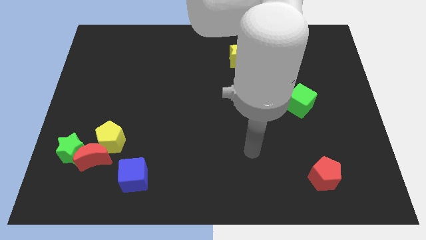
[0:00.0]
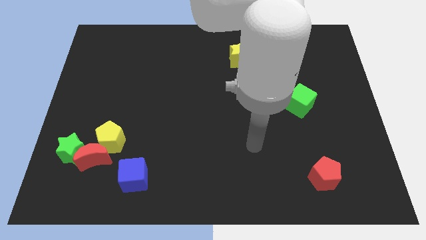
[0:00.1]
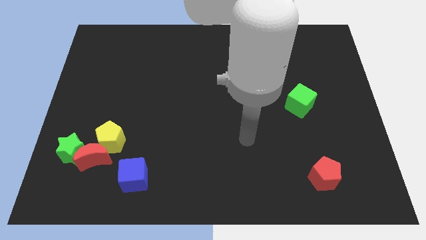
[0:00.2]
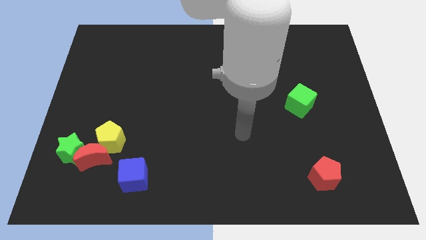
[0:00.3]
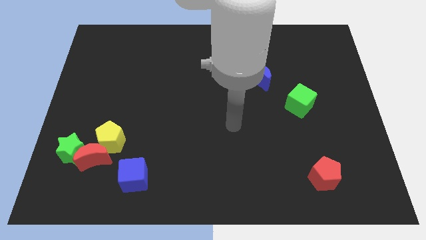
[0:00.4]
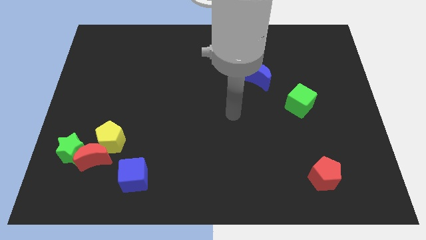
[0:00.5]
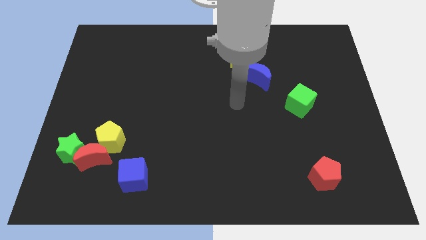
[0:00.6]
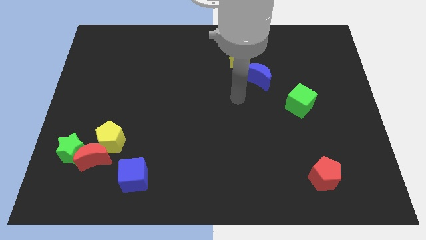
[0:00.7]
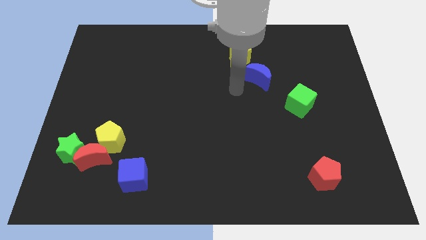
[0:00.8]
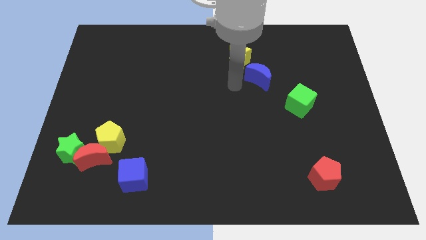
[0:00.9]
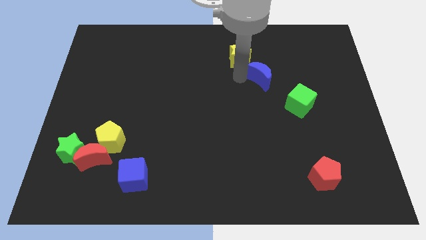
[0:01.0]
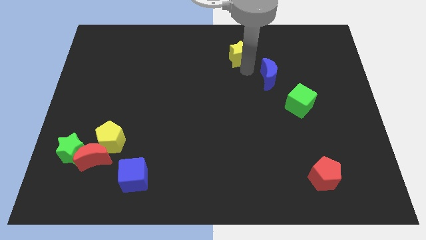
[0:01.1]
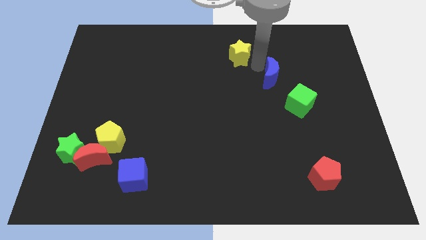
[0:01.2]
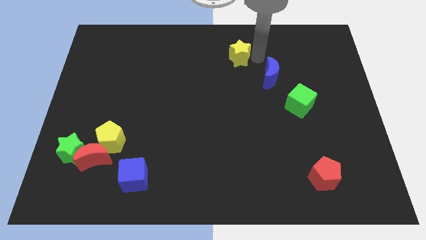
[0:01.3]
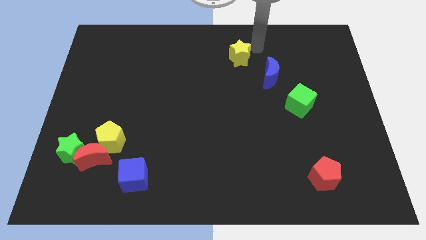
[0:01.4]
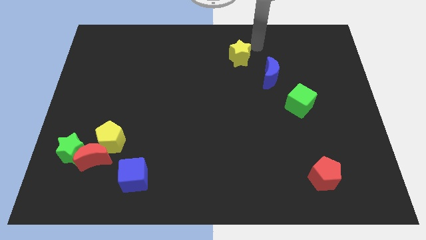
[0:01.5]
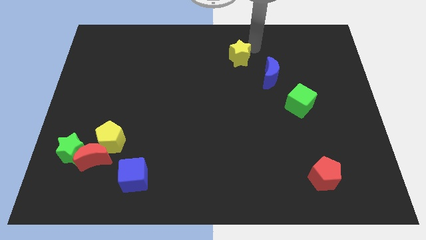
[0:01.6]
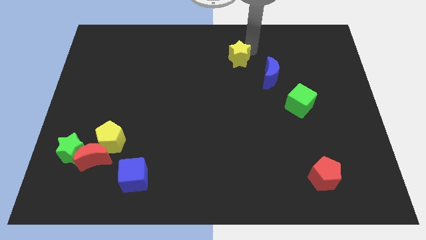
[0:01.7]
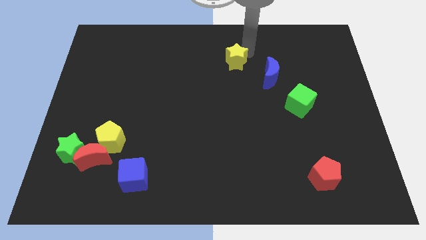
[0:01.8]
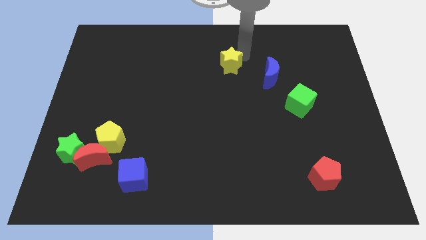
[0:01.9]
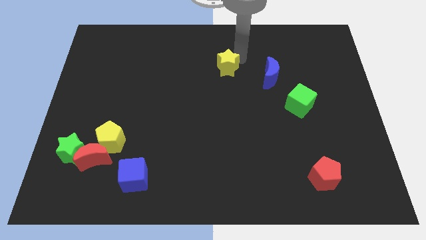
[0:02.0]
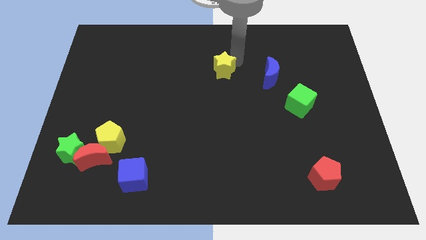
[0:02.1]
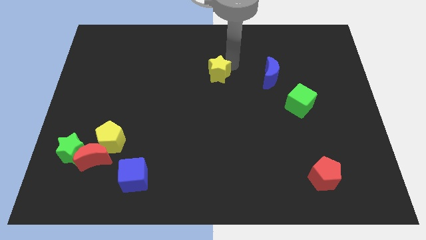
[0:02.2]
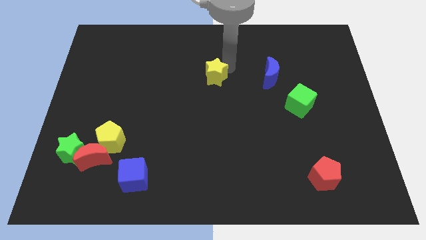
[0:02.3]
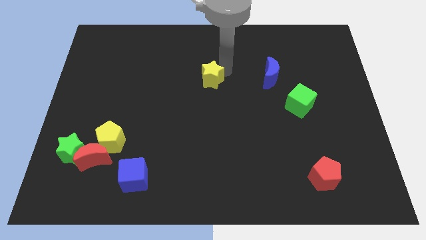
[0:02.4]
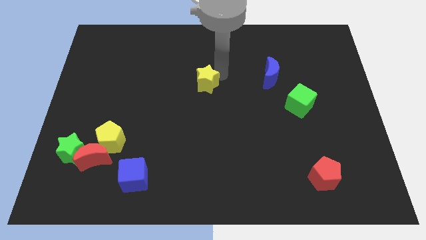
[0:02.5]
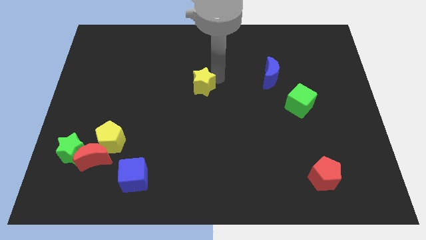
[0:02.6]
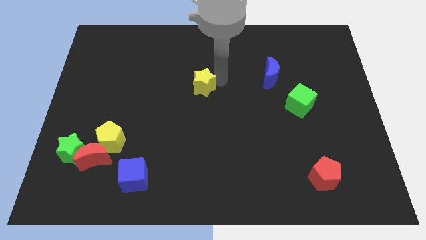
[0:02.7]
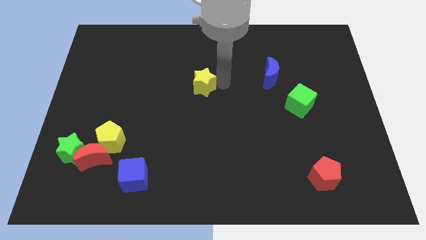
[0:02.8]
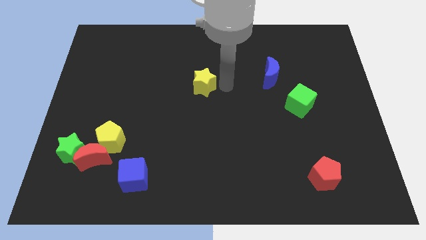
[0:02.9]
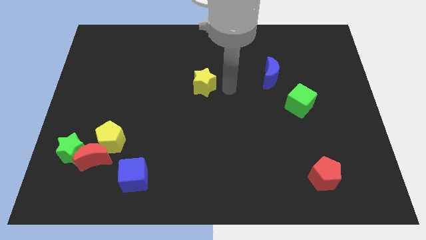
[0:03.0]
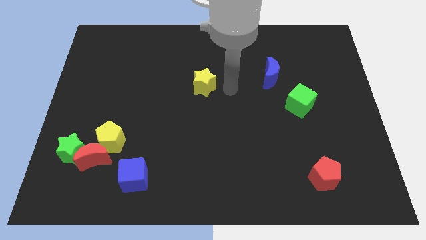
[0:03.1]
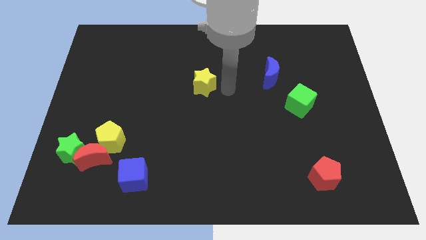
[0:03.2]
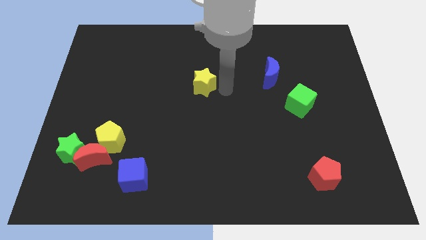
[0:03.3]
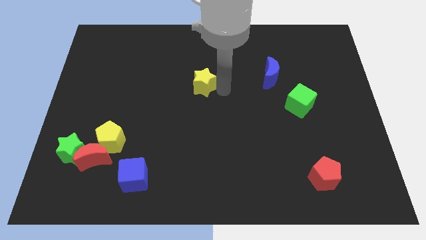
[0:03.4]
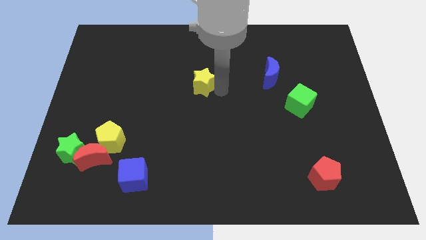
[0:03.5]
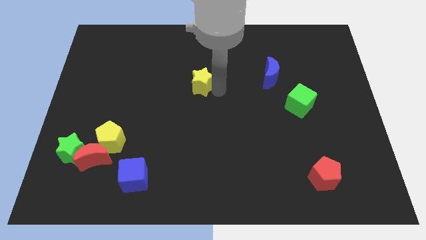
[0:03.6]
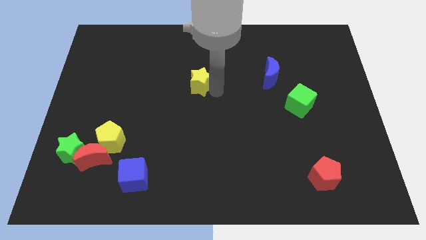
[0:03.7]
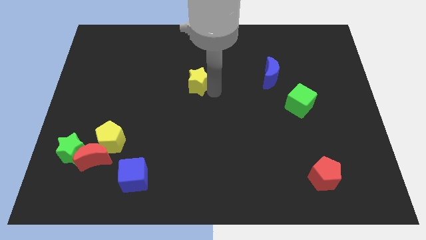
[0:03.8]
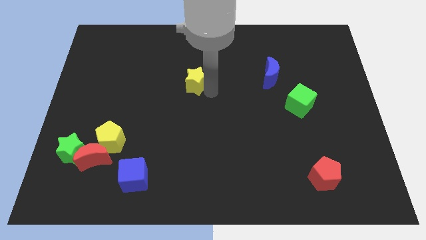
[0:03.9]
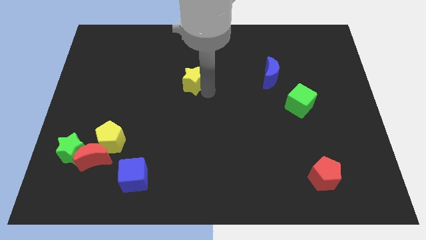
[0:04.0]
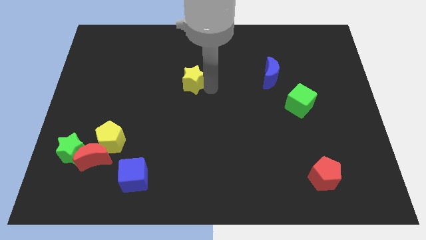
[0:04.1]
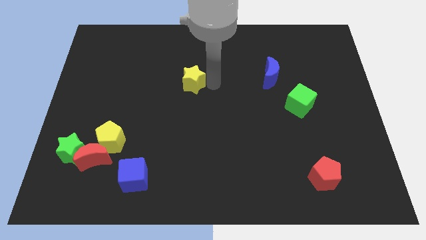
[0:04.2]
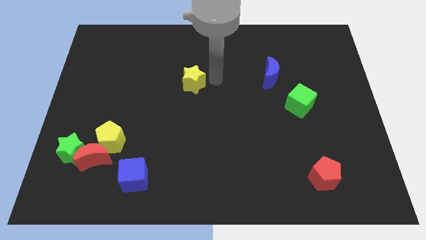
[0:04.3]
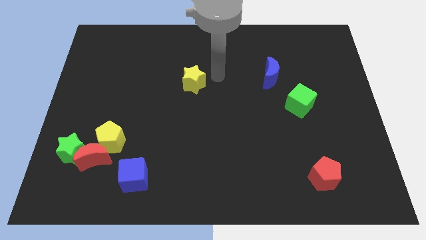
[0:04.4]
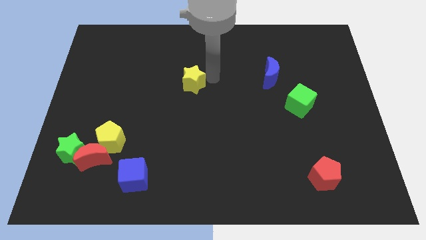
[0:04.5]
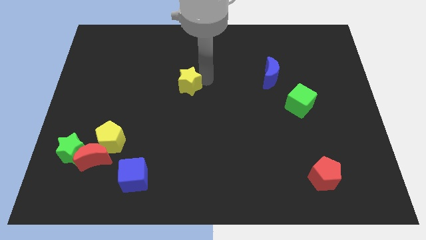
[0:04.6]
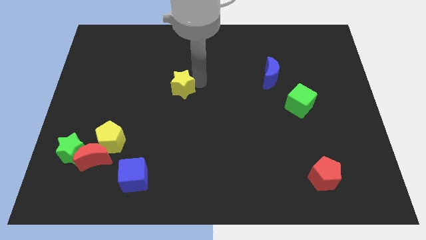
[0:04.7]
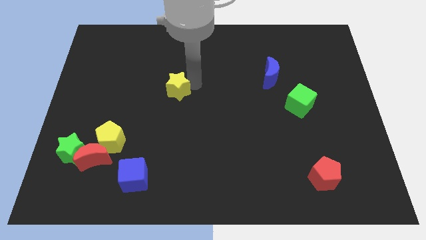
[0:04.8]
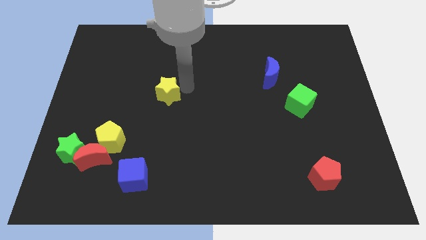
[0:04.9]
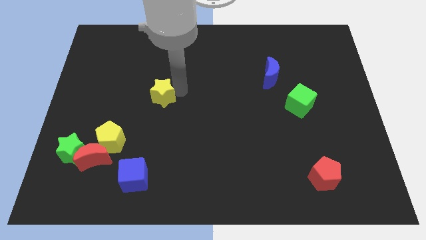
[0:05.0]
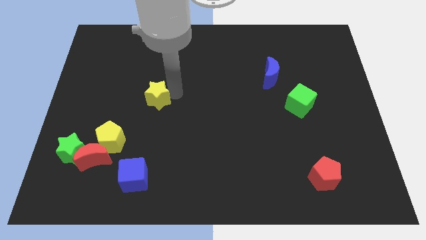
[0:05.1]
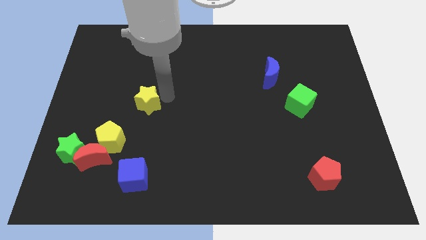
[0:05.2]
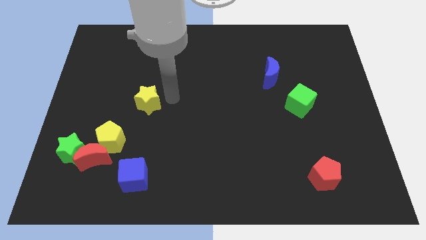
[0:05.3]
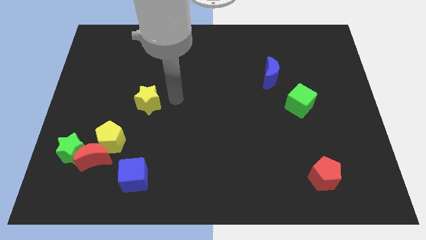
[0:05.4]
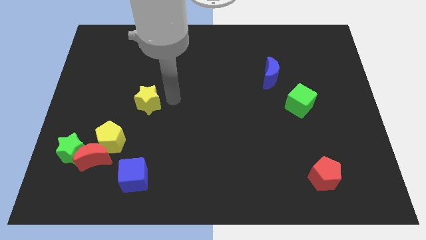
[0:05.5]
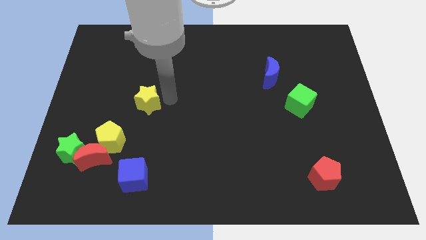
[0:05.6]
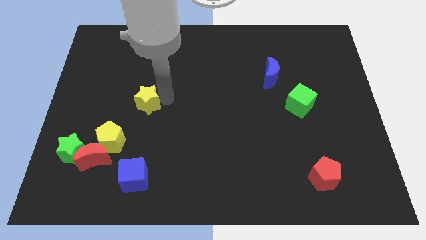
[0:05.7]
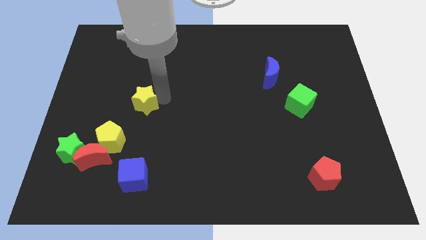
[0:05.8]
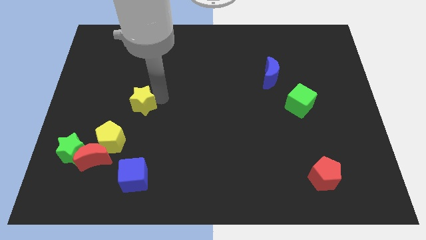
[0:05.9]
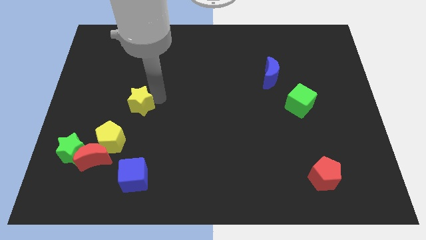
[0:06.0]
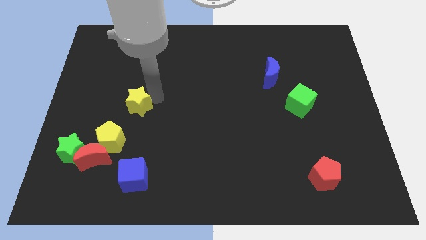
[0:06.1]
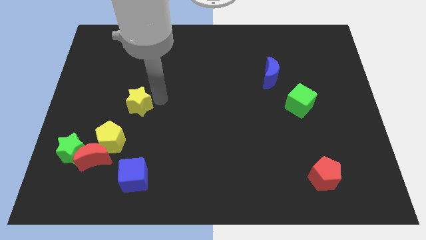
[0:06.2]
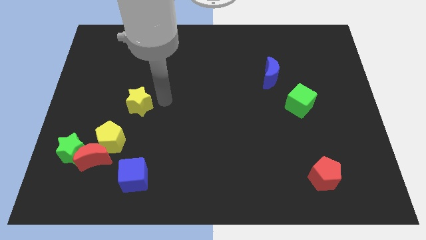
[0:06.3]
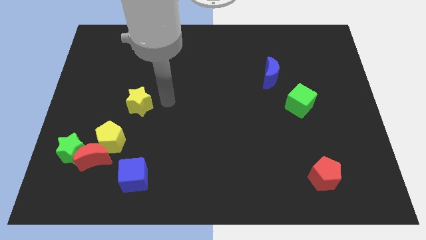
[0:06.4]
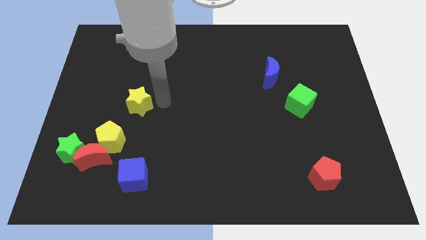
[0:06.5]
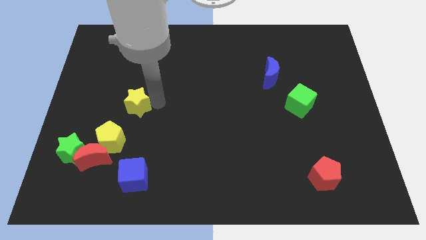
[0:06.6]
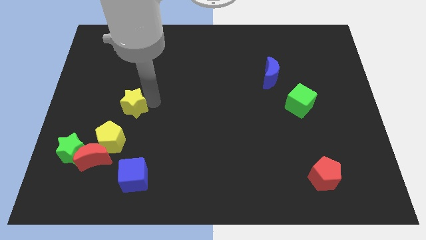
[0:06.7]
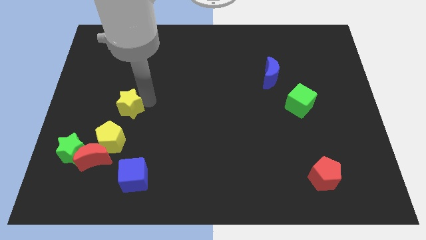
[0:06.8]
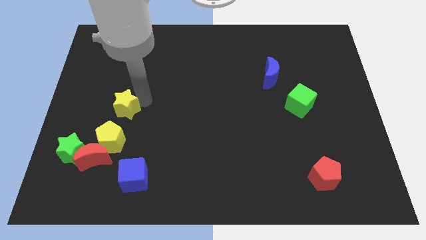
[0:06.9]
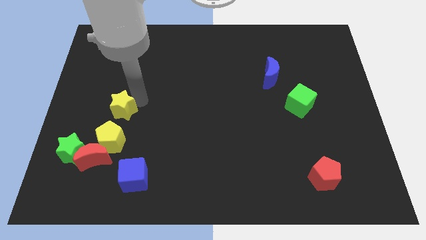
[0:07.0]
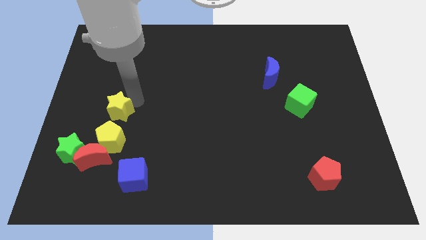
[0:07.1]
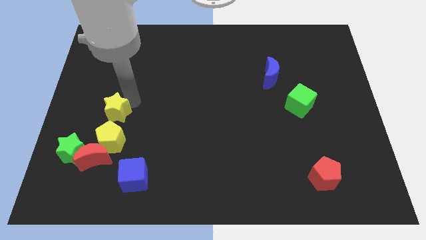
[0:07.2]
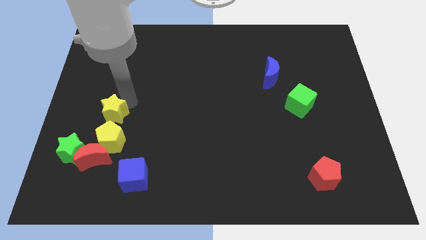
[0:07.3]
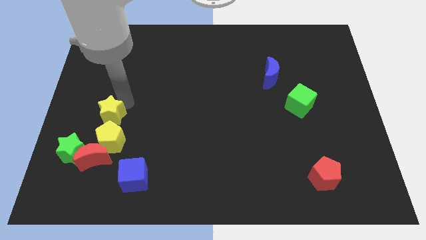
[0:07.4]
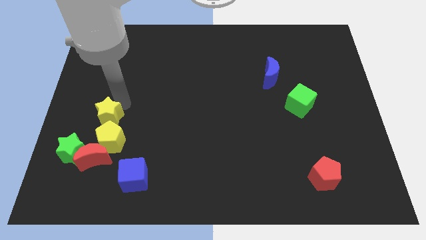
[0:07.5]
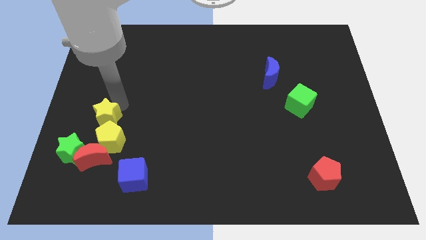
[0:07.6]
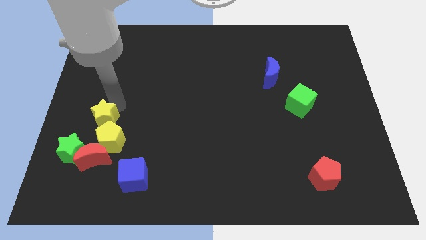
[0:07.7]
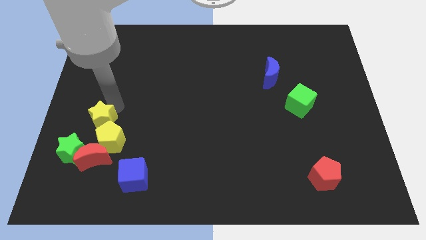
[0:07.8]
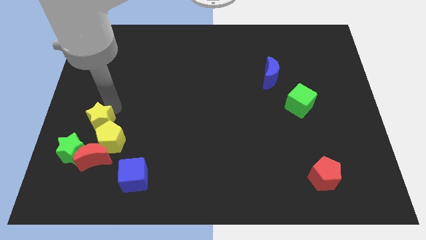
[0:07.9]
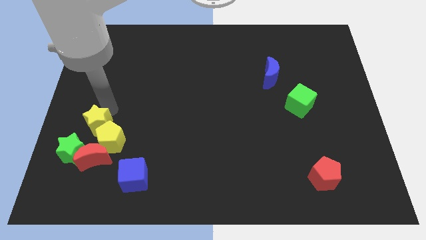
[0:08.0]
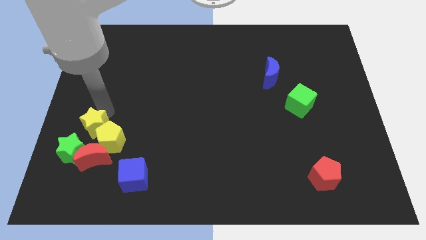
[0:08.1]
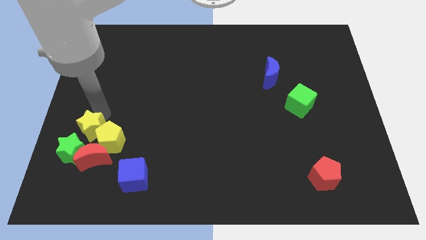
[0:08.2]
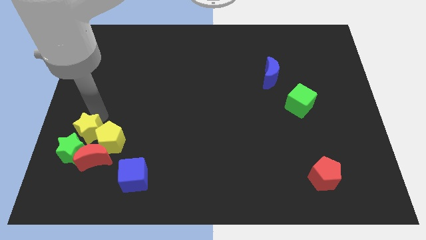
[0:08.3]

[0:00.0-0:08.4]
push the yellow star close to the green star
